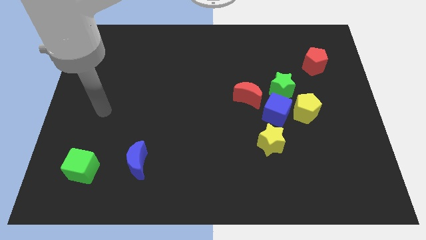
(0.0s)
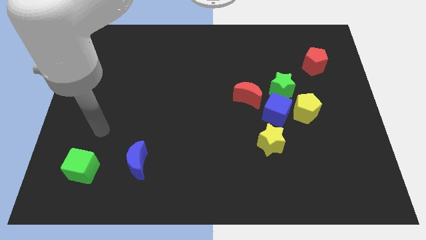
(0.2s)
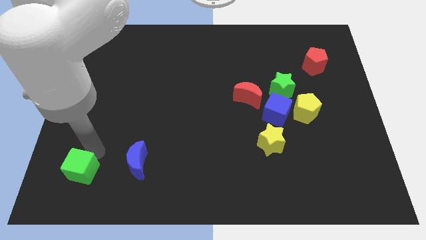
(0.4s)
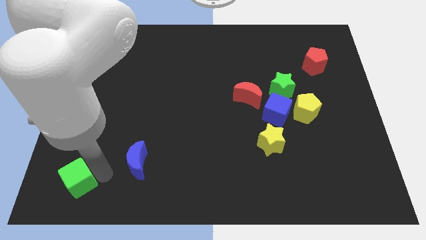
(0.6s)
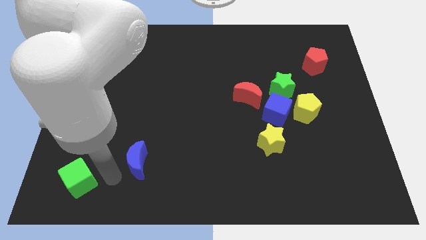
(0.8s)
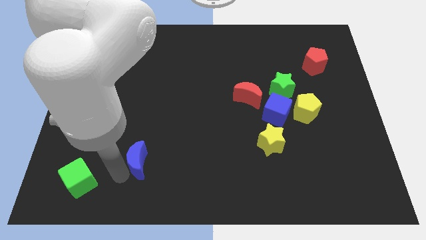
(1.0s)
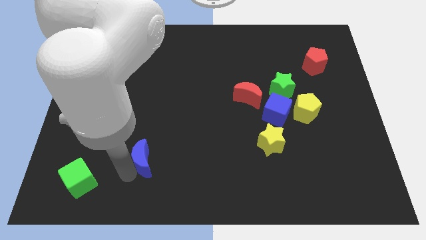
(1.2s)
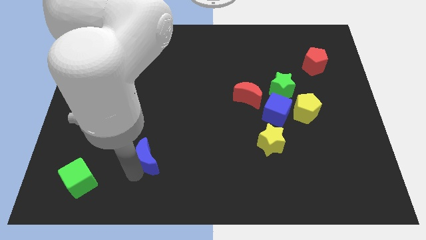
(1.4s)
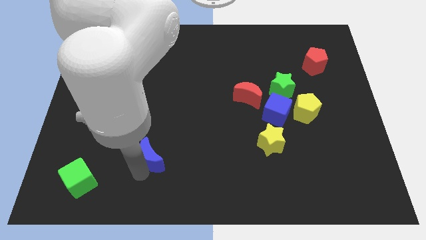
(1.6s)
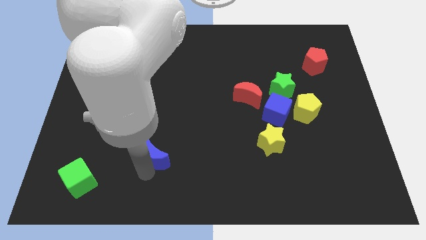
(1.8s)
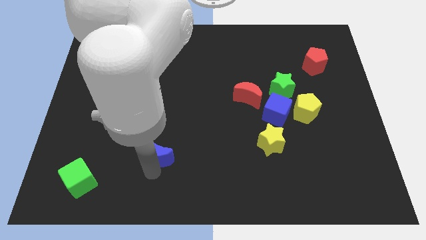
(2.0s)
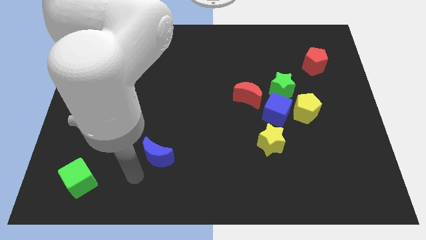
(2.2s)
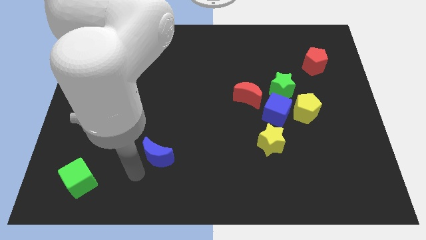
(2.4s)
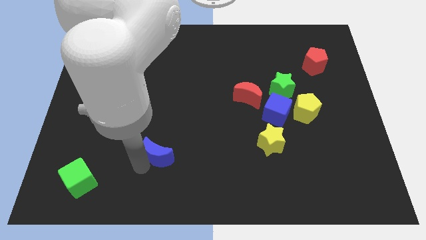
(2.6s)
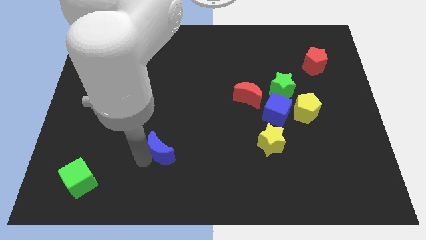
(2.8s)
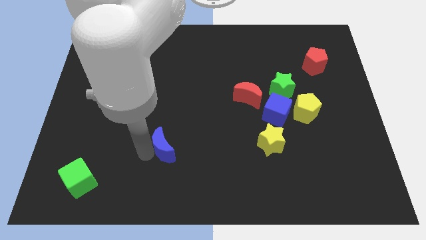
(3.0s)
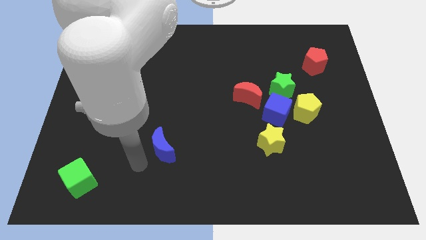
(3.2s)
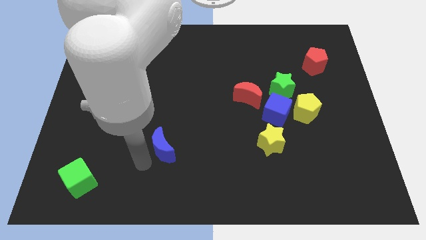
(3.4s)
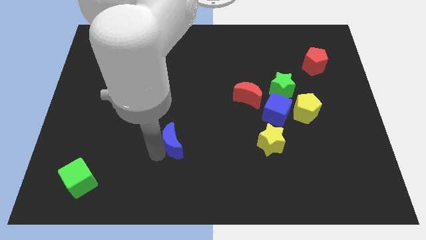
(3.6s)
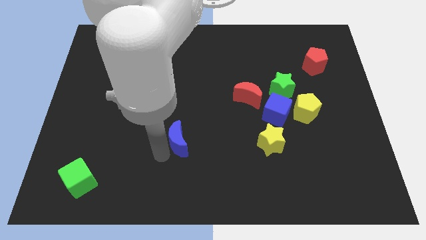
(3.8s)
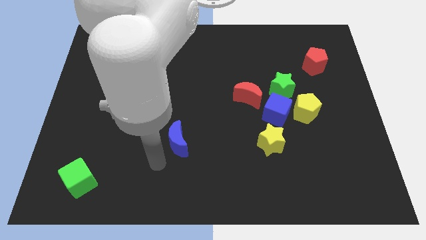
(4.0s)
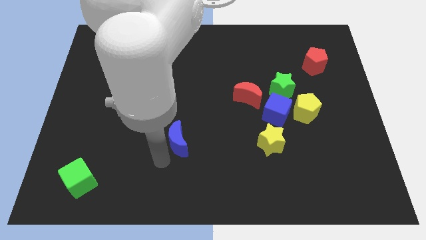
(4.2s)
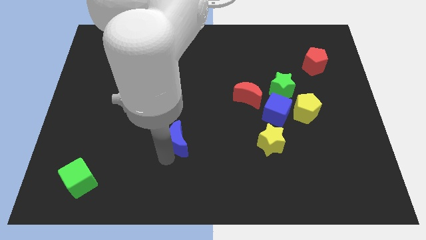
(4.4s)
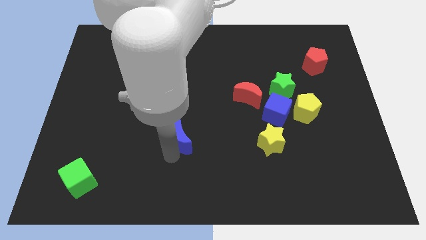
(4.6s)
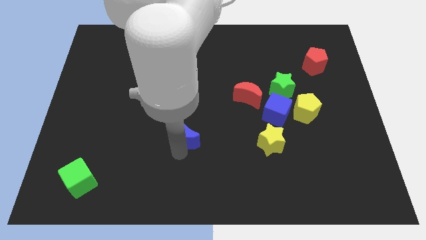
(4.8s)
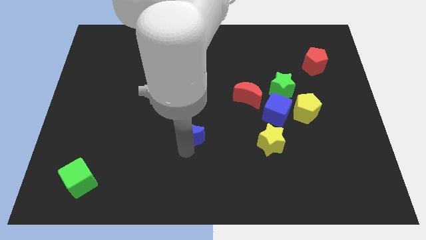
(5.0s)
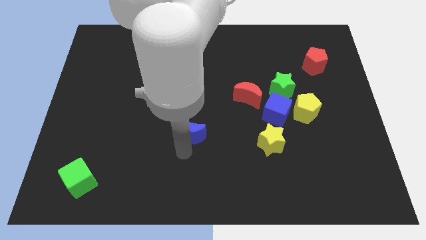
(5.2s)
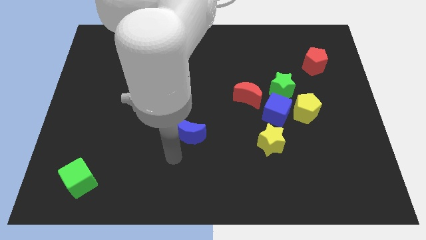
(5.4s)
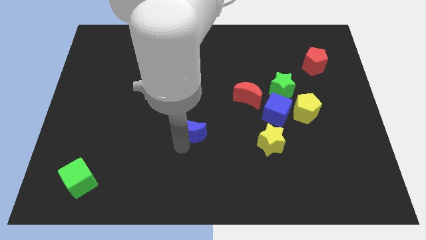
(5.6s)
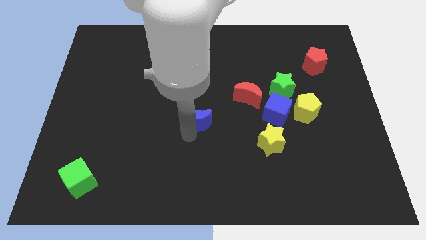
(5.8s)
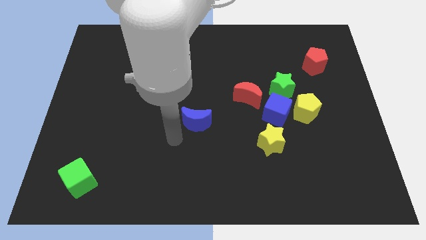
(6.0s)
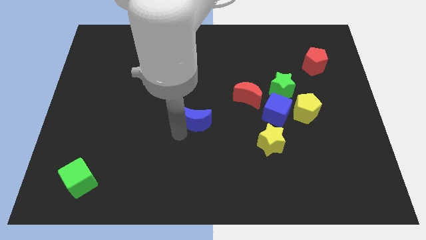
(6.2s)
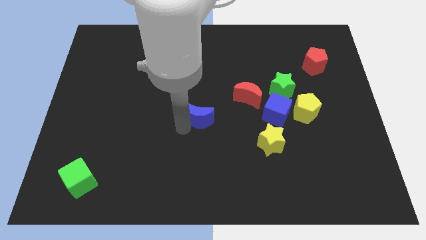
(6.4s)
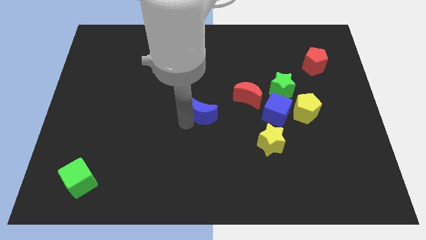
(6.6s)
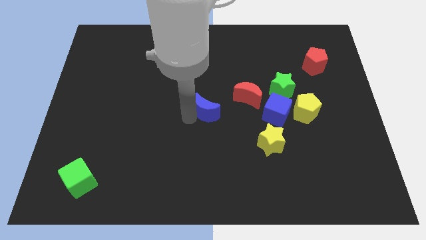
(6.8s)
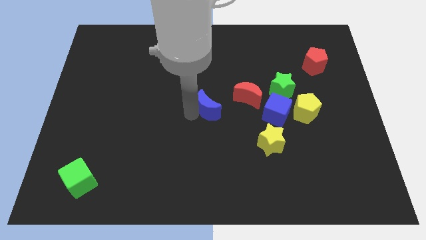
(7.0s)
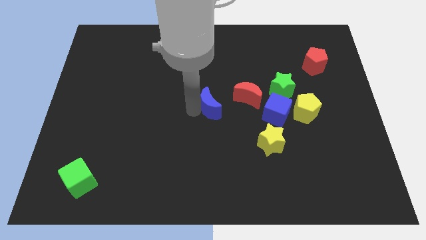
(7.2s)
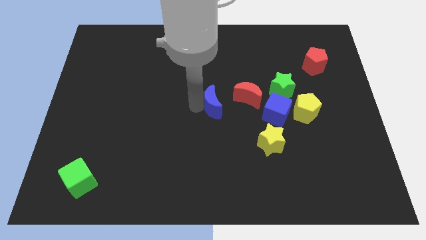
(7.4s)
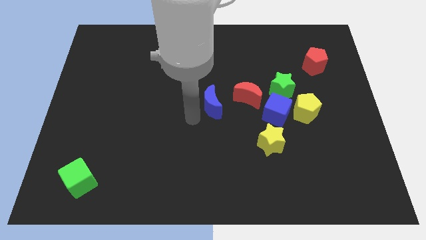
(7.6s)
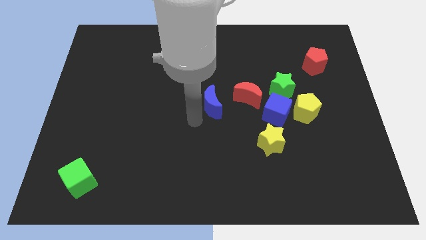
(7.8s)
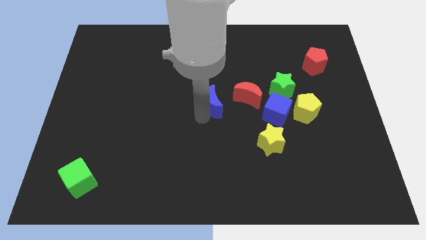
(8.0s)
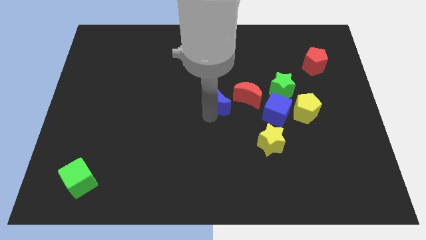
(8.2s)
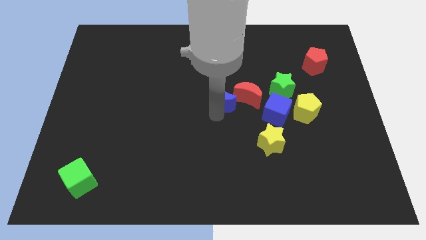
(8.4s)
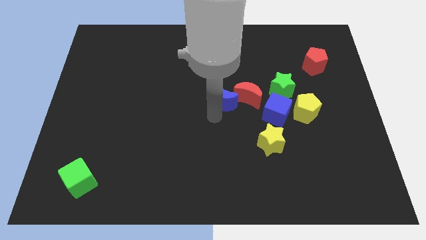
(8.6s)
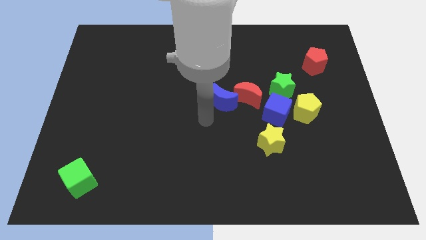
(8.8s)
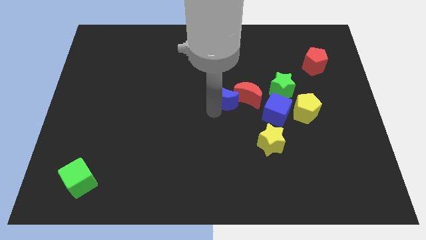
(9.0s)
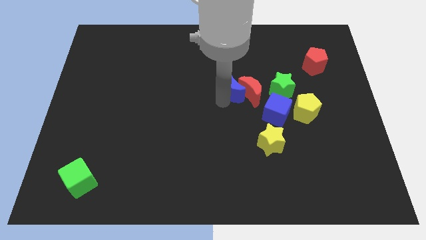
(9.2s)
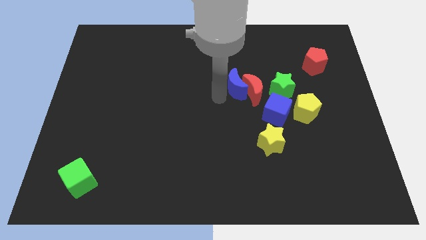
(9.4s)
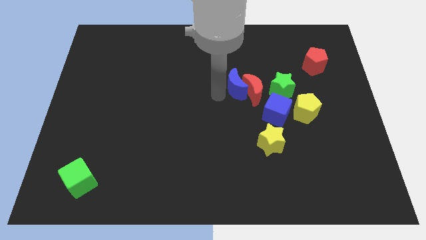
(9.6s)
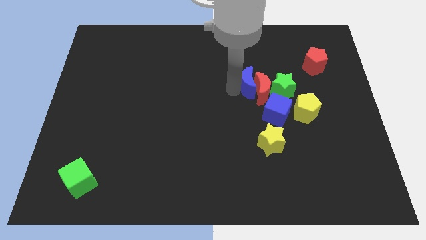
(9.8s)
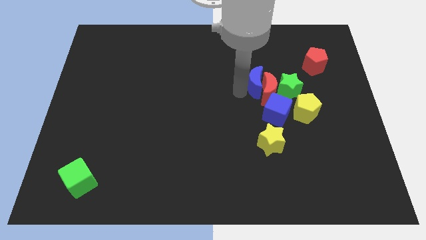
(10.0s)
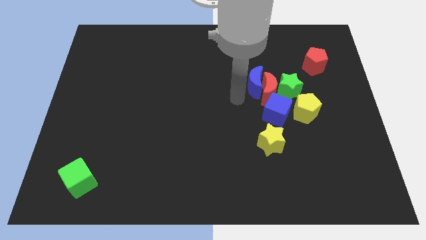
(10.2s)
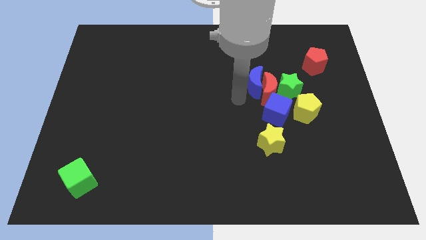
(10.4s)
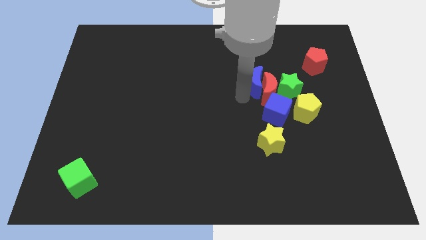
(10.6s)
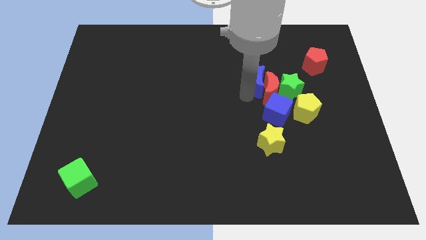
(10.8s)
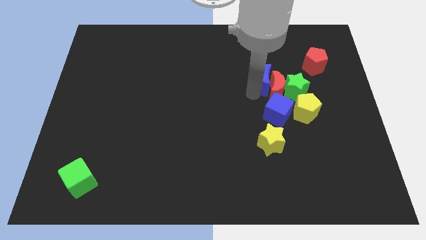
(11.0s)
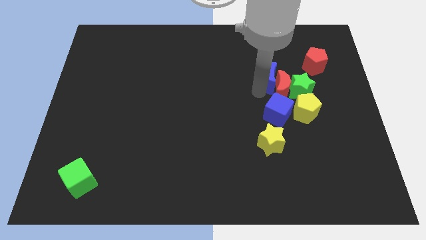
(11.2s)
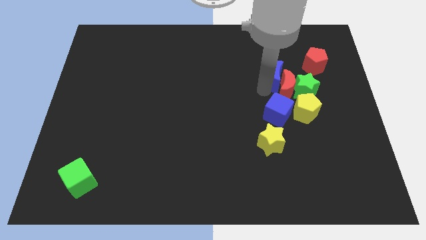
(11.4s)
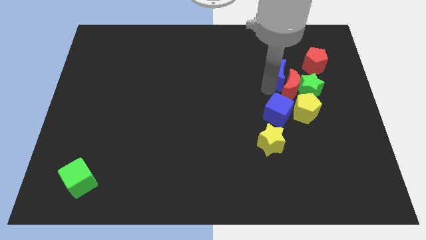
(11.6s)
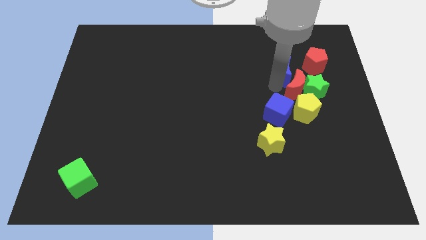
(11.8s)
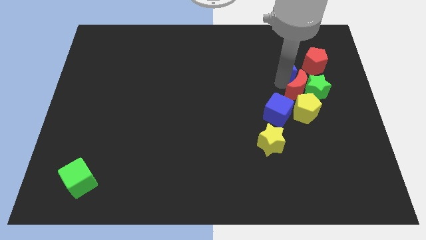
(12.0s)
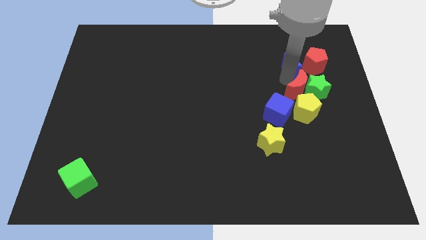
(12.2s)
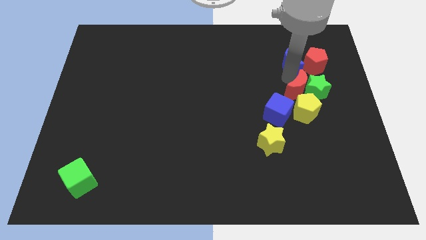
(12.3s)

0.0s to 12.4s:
move the blue moon next to the red pentagon

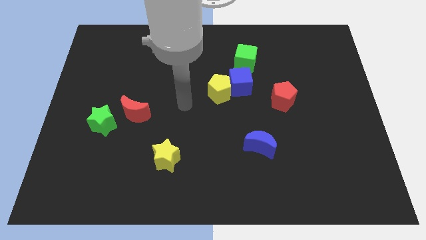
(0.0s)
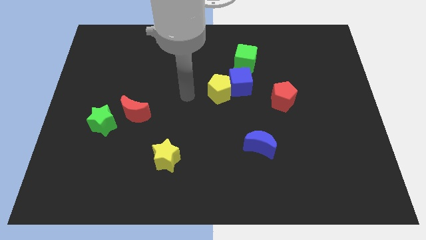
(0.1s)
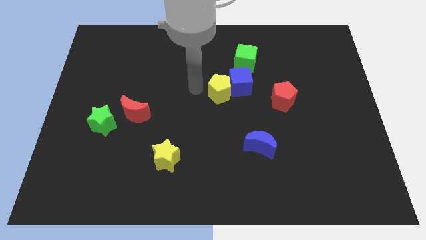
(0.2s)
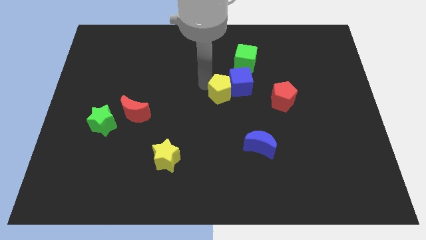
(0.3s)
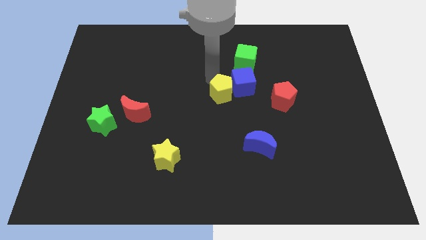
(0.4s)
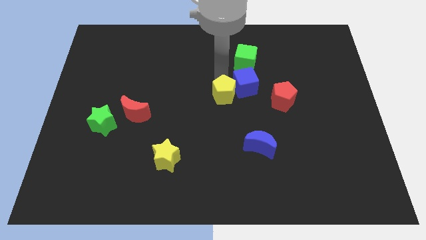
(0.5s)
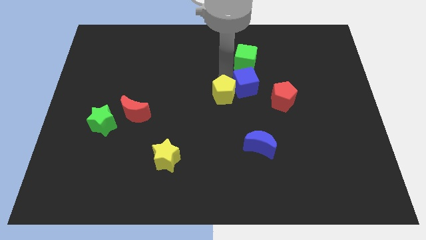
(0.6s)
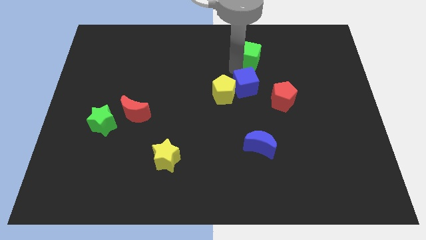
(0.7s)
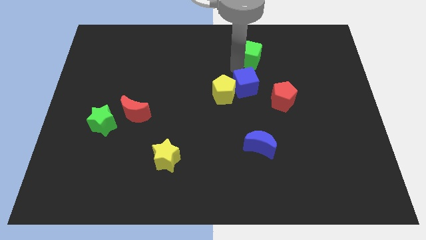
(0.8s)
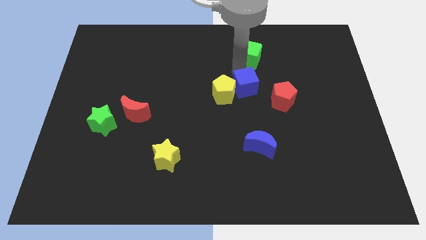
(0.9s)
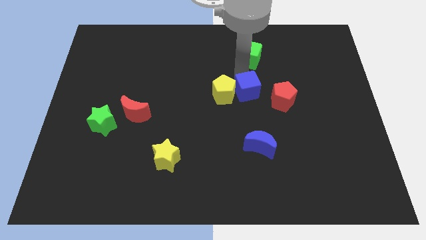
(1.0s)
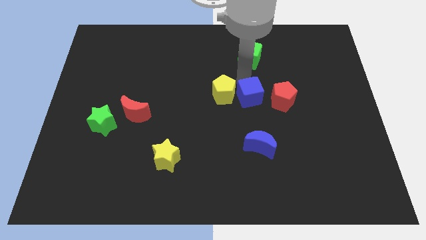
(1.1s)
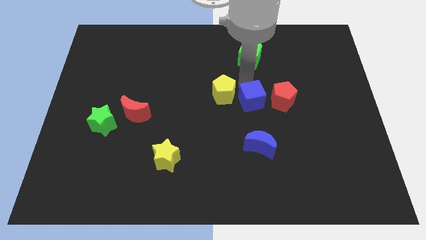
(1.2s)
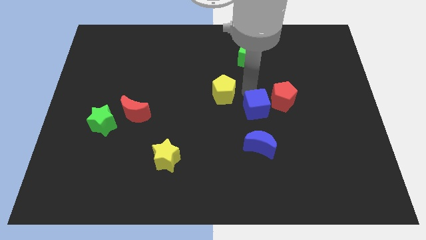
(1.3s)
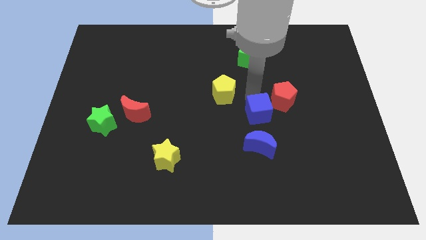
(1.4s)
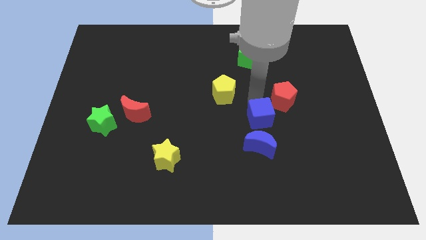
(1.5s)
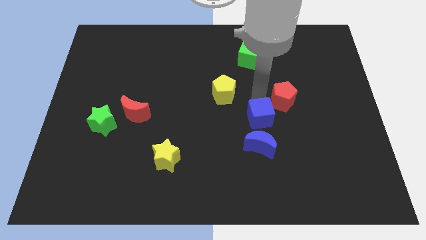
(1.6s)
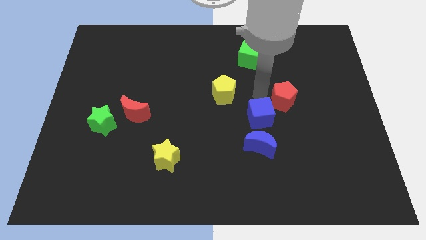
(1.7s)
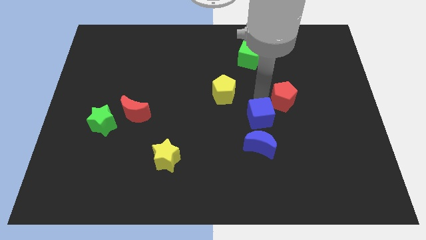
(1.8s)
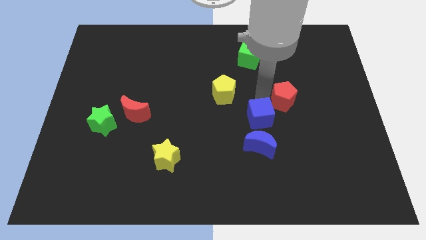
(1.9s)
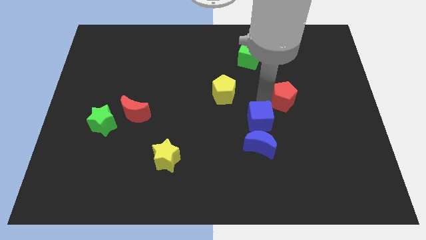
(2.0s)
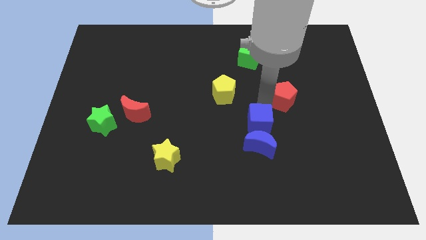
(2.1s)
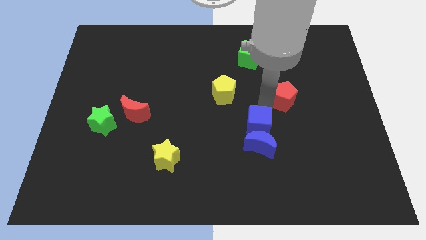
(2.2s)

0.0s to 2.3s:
move the blue cube next to the blue moon
